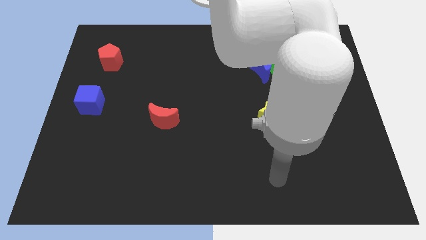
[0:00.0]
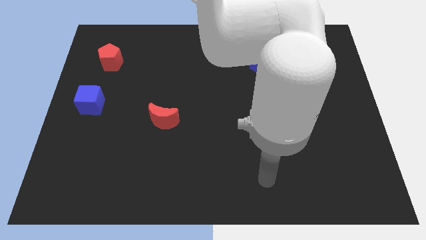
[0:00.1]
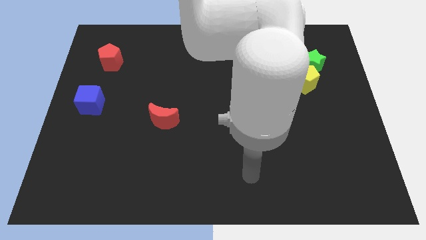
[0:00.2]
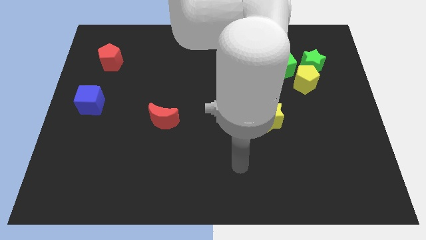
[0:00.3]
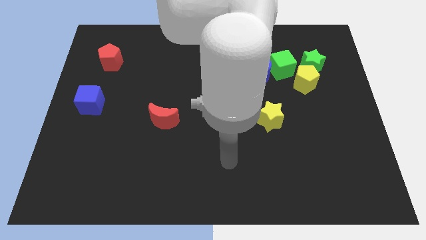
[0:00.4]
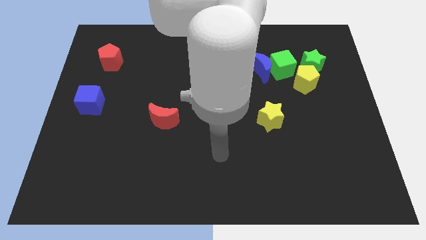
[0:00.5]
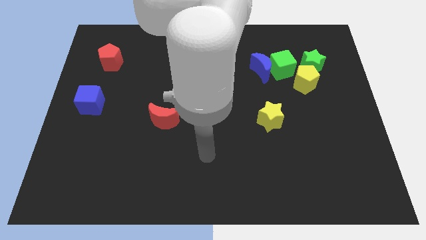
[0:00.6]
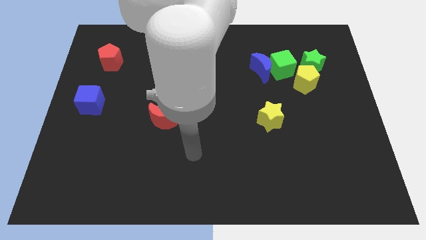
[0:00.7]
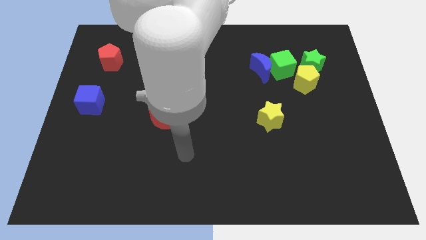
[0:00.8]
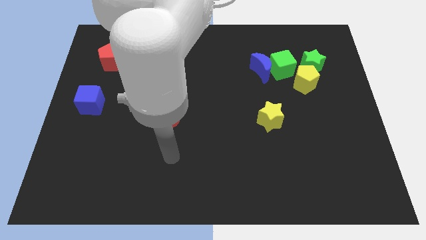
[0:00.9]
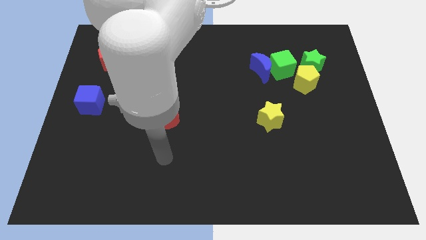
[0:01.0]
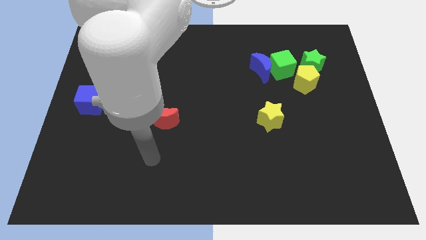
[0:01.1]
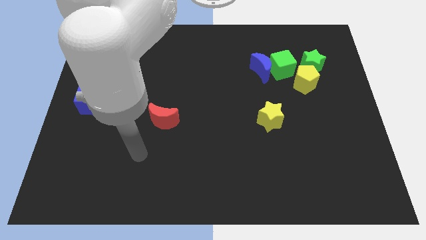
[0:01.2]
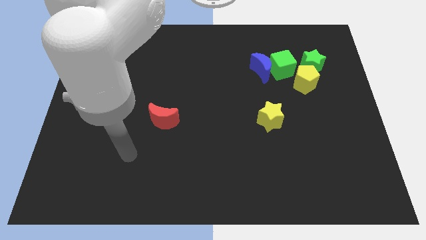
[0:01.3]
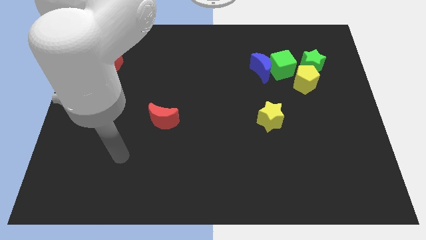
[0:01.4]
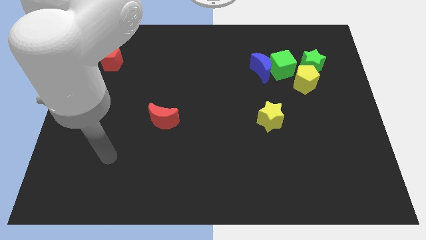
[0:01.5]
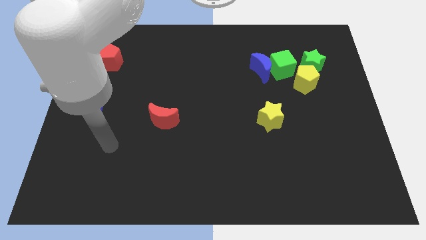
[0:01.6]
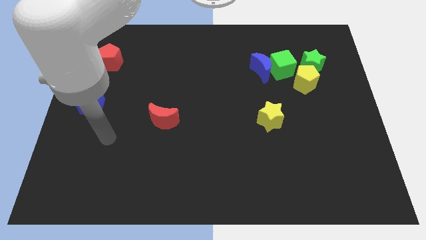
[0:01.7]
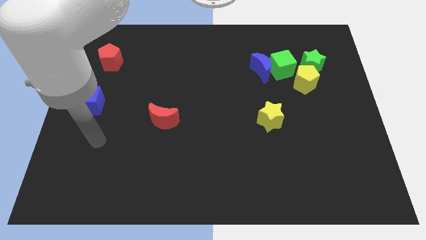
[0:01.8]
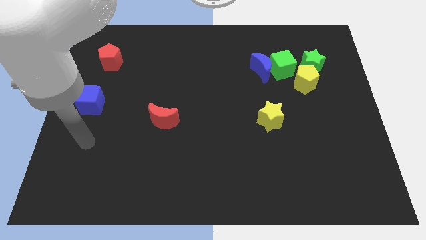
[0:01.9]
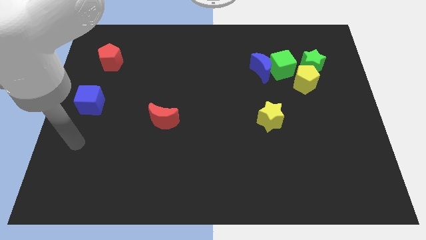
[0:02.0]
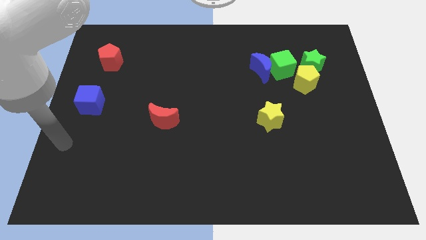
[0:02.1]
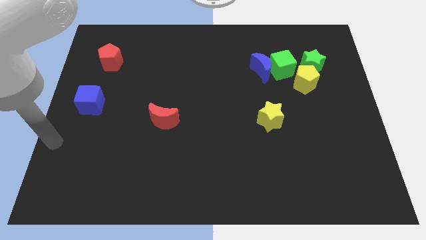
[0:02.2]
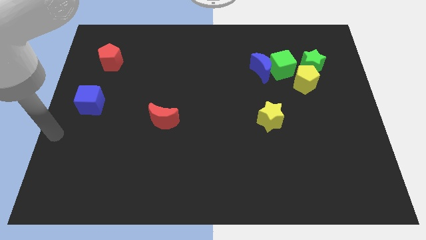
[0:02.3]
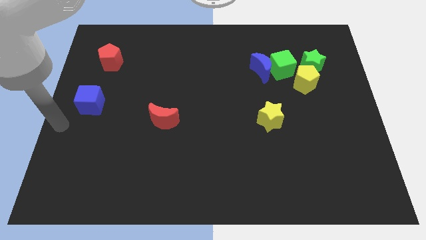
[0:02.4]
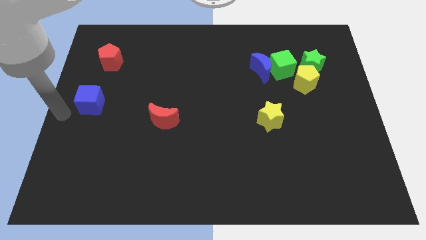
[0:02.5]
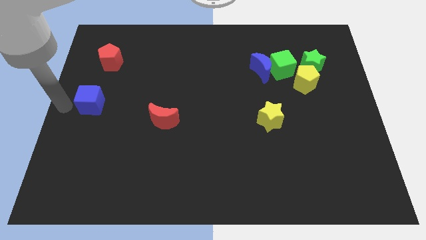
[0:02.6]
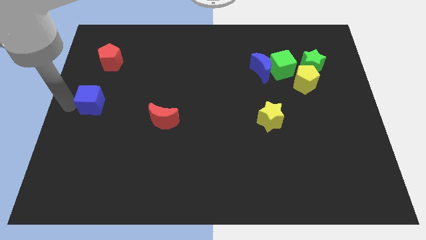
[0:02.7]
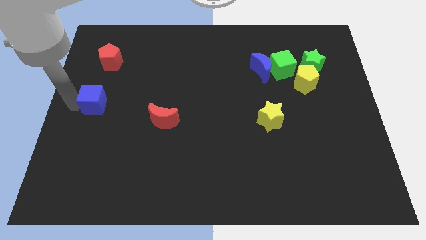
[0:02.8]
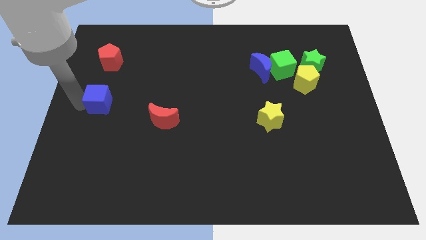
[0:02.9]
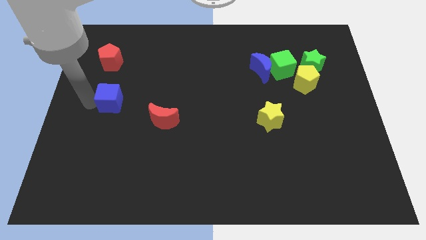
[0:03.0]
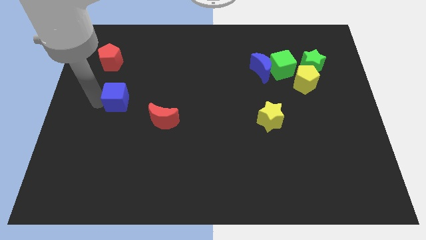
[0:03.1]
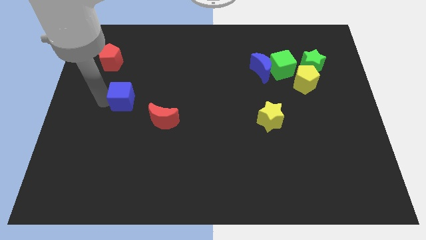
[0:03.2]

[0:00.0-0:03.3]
move the blue cube slightly to the right

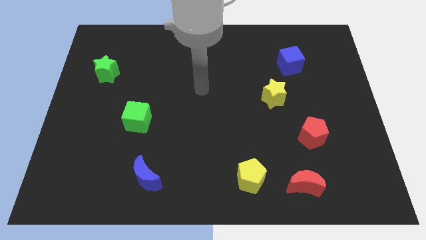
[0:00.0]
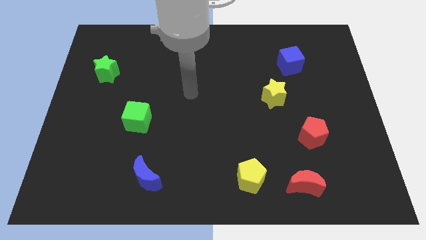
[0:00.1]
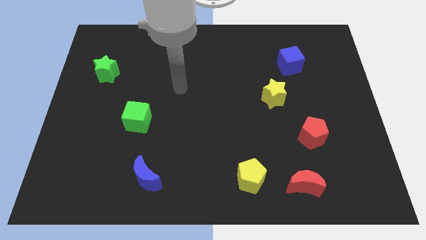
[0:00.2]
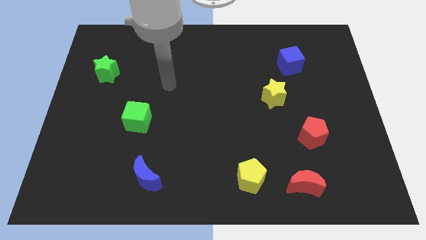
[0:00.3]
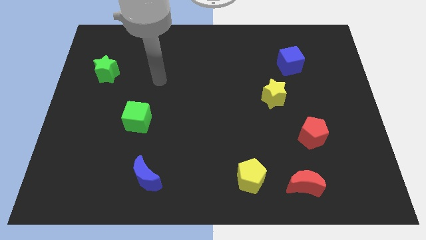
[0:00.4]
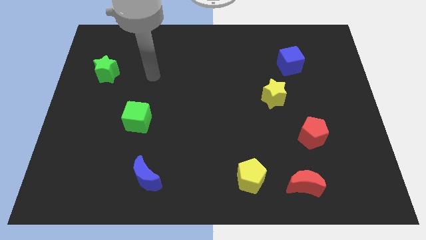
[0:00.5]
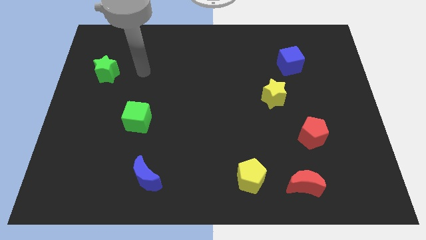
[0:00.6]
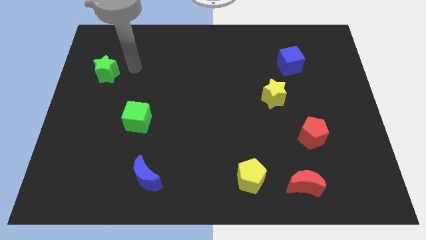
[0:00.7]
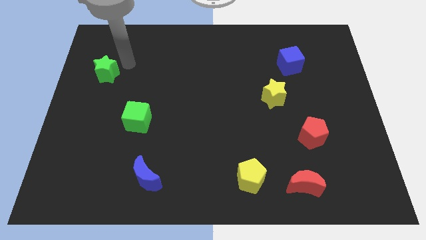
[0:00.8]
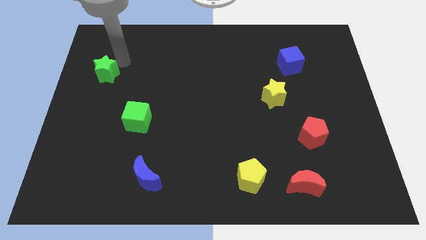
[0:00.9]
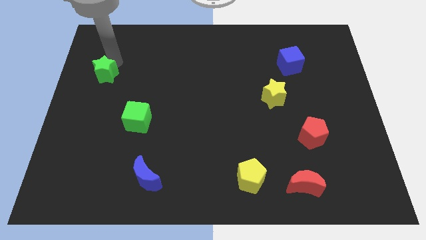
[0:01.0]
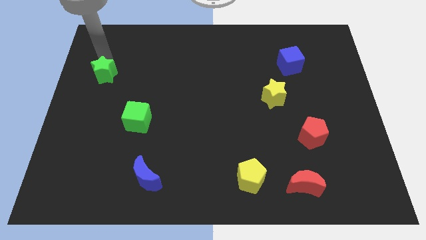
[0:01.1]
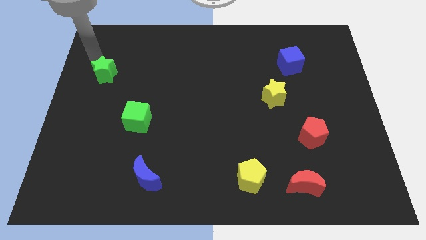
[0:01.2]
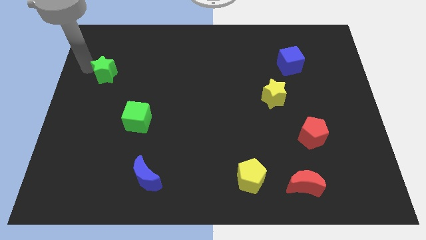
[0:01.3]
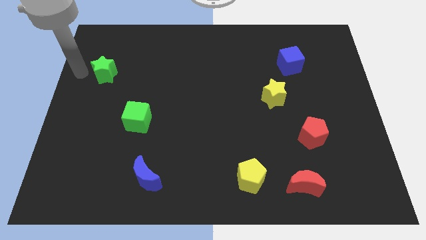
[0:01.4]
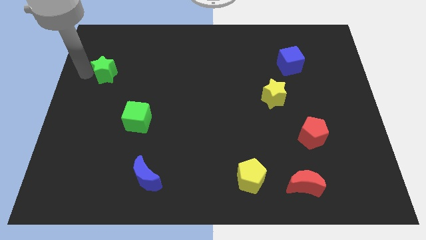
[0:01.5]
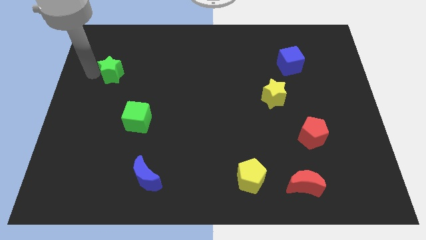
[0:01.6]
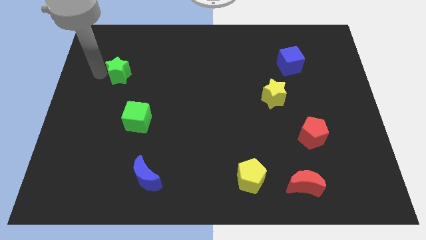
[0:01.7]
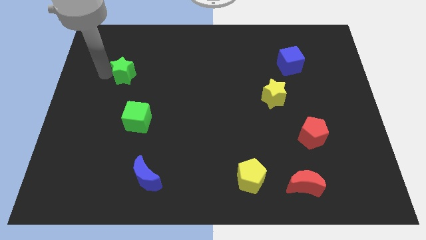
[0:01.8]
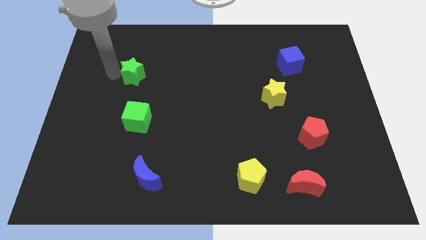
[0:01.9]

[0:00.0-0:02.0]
slightly push the green star to the right

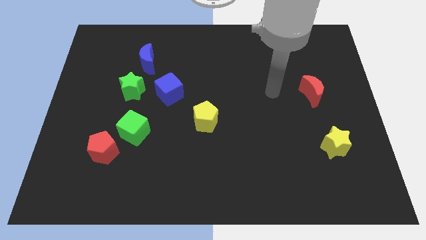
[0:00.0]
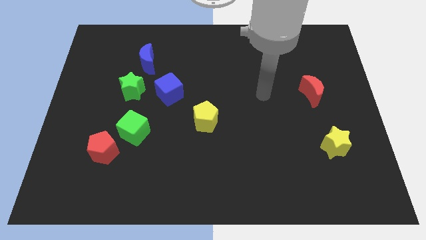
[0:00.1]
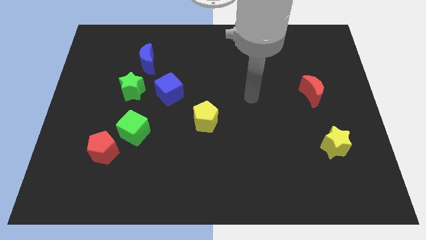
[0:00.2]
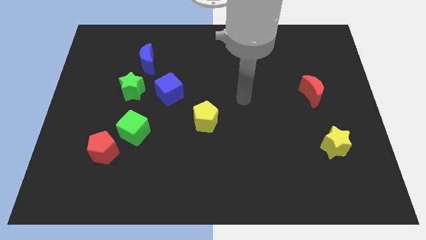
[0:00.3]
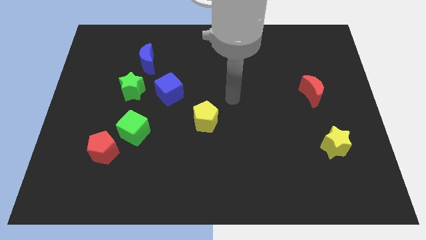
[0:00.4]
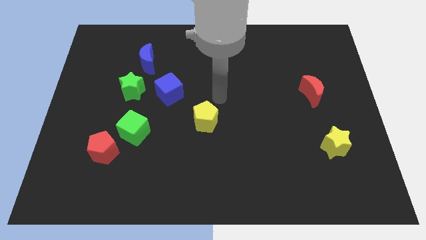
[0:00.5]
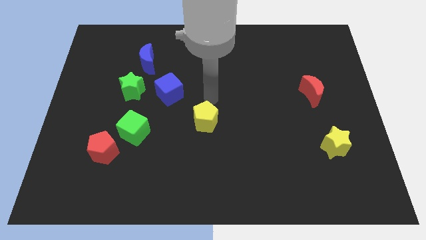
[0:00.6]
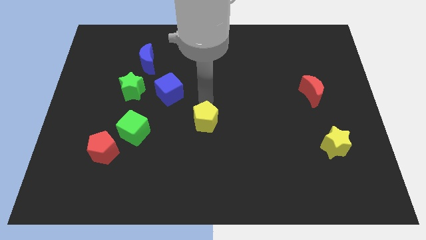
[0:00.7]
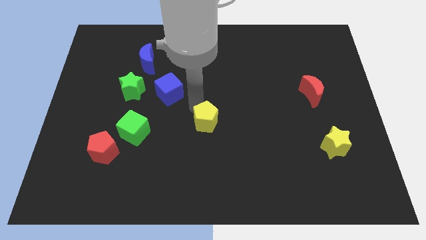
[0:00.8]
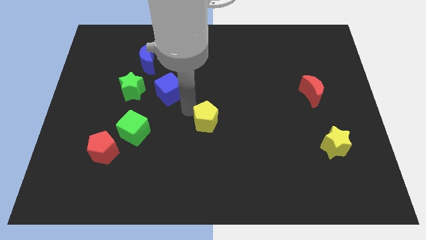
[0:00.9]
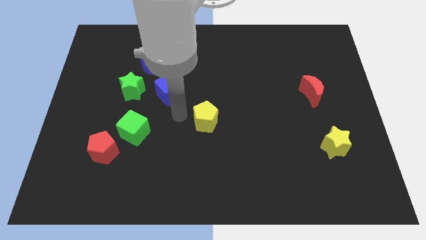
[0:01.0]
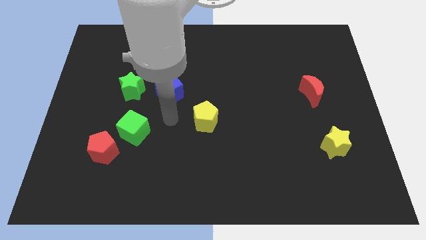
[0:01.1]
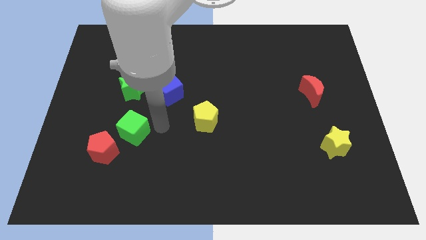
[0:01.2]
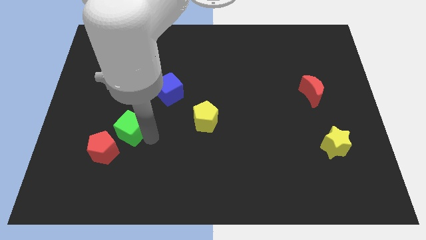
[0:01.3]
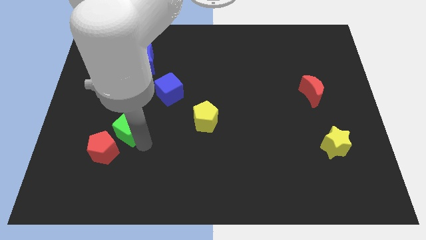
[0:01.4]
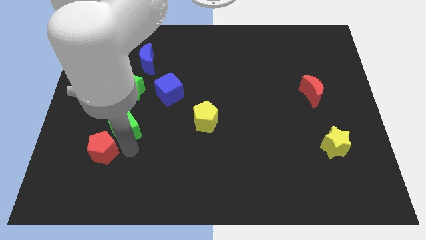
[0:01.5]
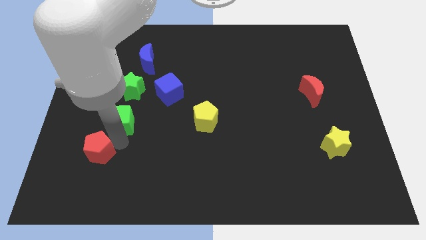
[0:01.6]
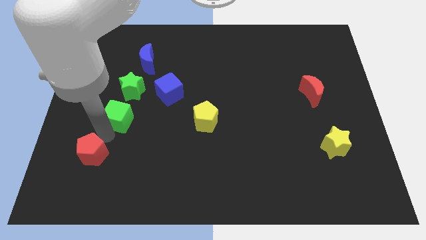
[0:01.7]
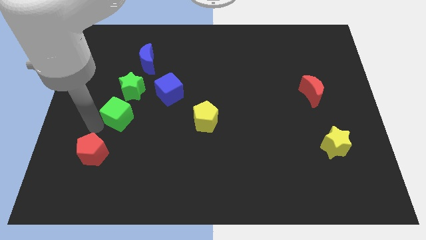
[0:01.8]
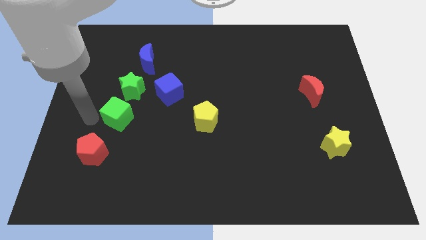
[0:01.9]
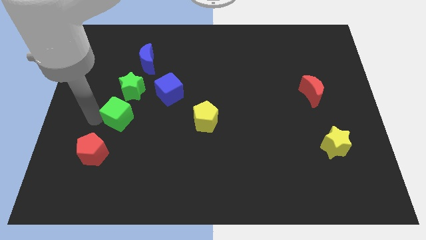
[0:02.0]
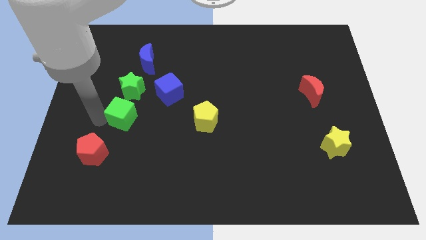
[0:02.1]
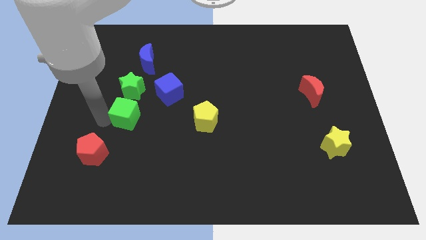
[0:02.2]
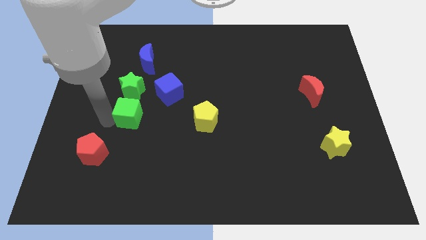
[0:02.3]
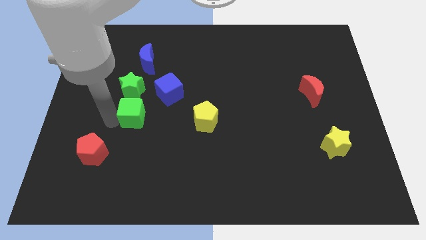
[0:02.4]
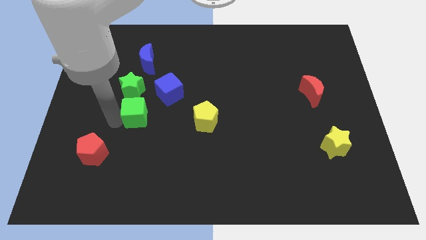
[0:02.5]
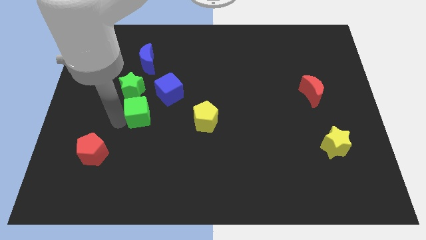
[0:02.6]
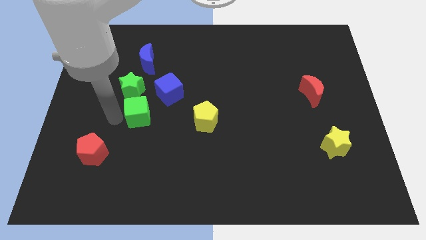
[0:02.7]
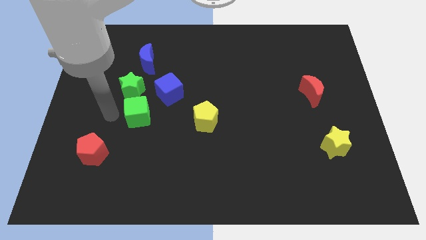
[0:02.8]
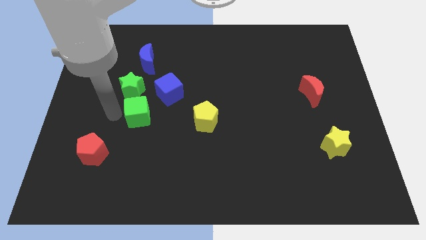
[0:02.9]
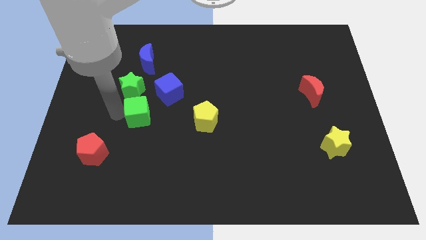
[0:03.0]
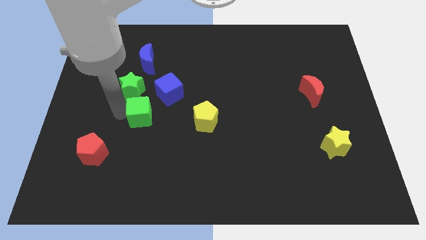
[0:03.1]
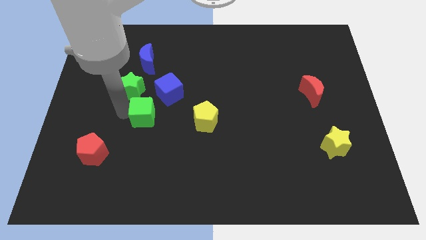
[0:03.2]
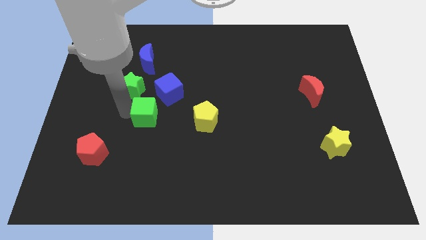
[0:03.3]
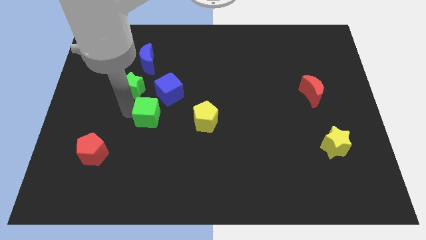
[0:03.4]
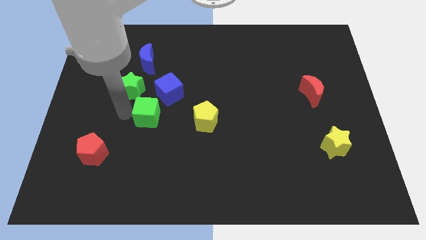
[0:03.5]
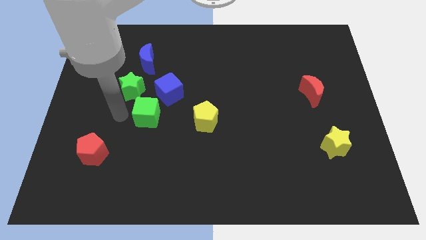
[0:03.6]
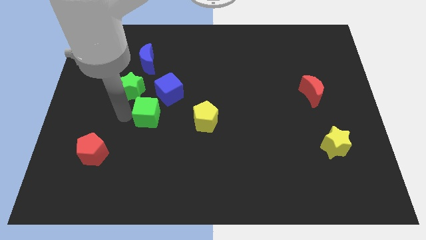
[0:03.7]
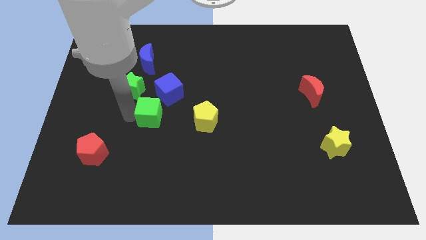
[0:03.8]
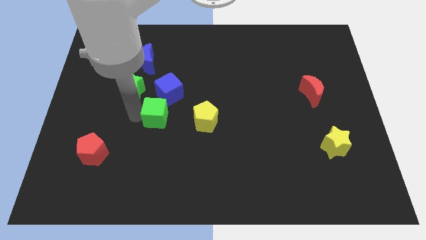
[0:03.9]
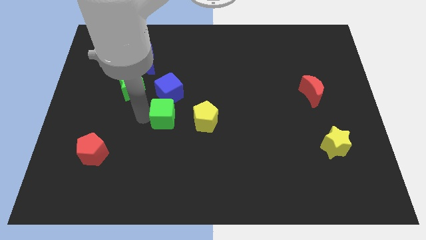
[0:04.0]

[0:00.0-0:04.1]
push the green cube a little bit diagonally up and right
